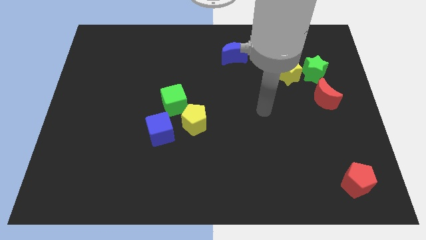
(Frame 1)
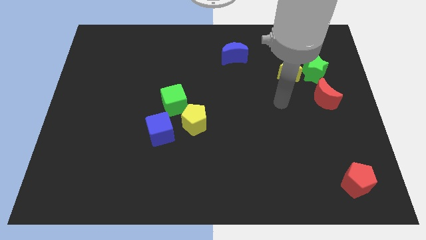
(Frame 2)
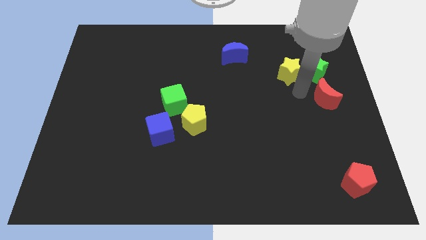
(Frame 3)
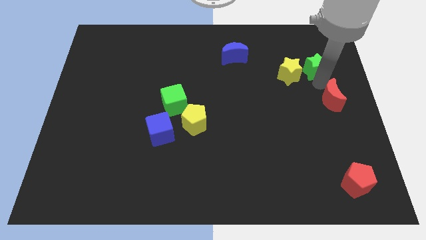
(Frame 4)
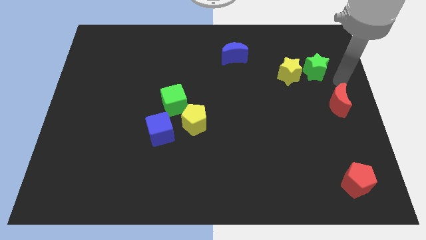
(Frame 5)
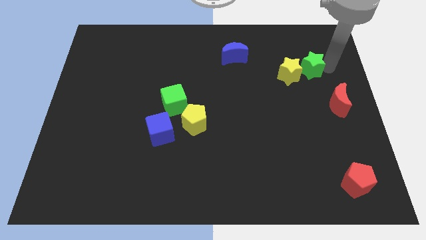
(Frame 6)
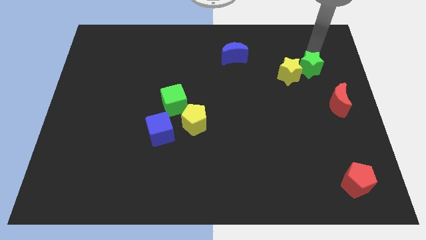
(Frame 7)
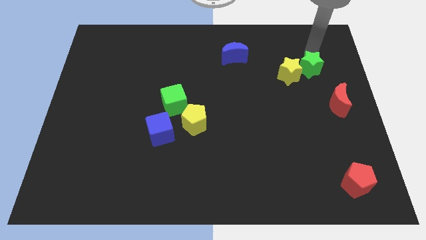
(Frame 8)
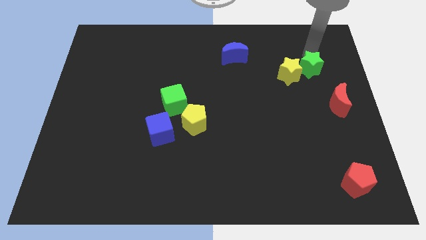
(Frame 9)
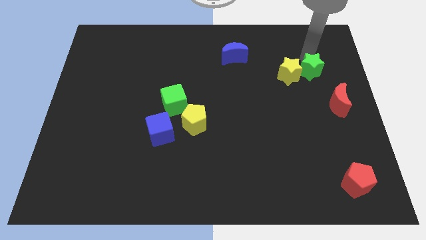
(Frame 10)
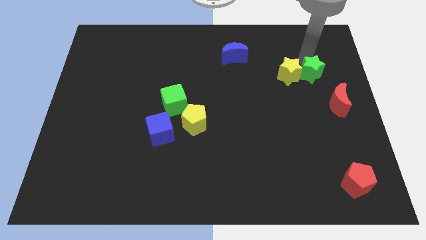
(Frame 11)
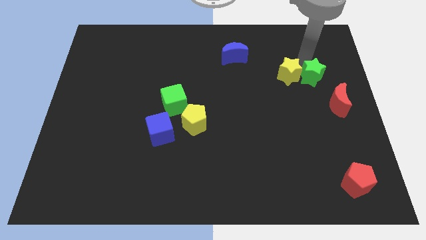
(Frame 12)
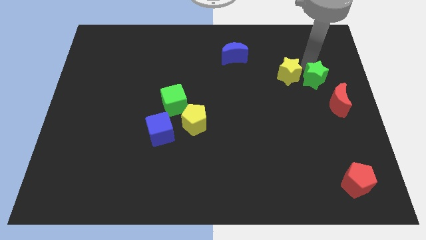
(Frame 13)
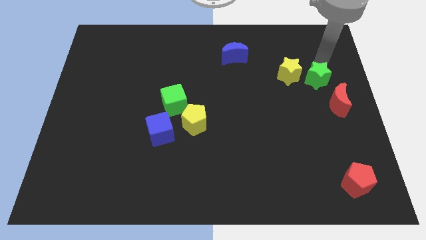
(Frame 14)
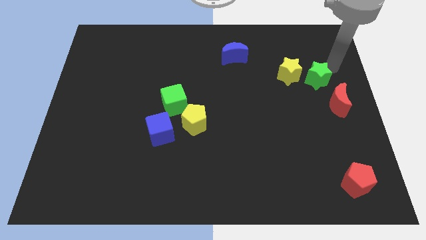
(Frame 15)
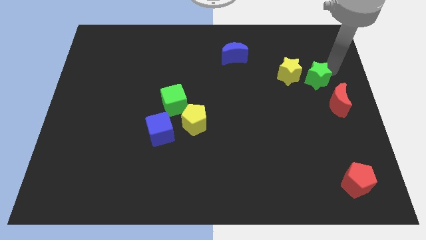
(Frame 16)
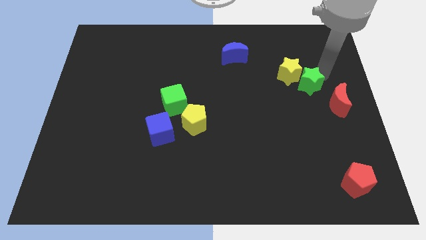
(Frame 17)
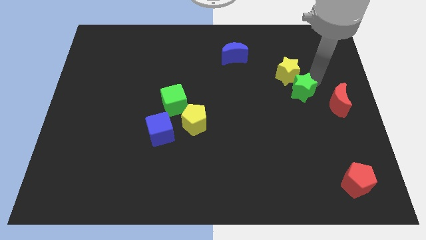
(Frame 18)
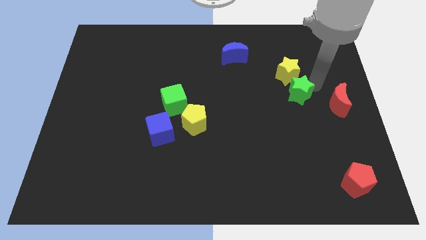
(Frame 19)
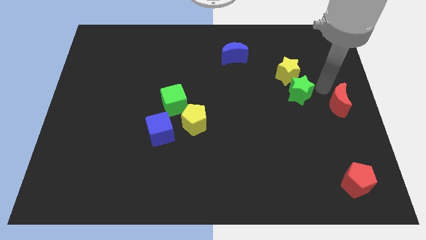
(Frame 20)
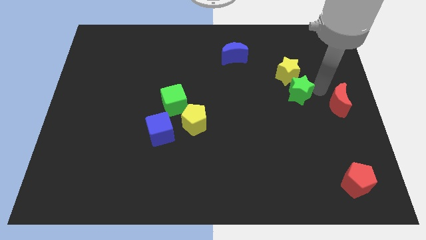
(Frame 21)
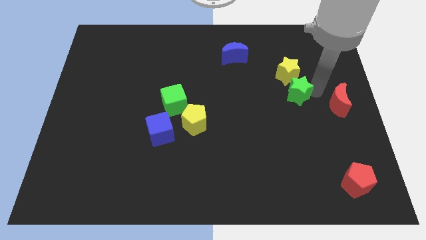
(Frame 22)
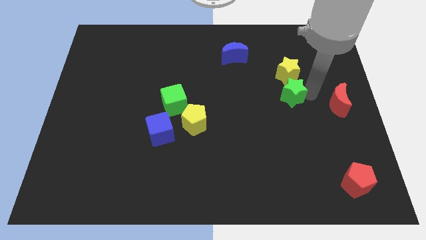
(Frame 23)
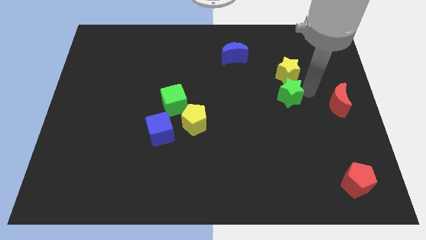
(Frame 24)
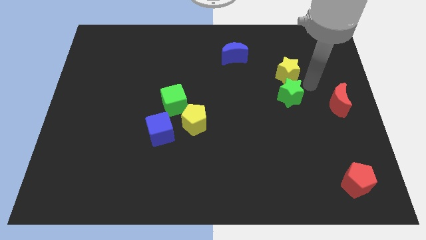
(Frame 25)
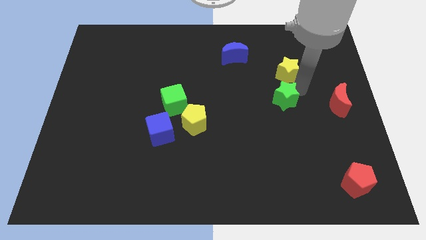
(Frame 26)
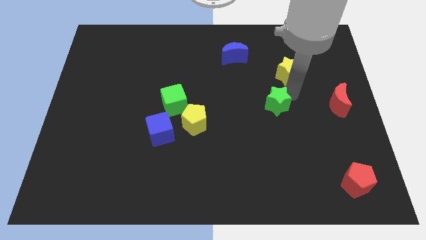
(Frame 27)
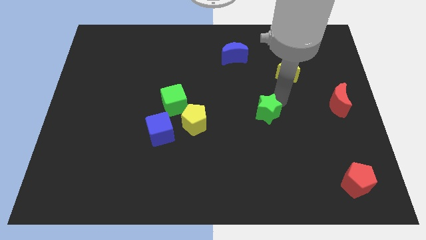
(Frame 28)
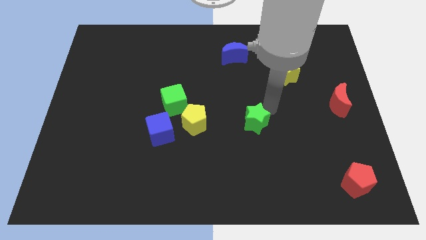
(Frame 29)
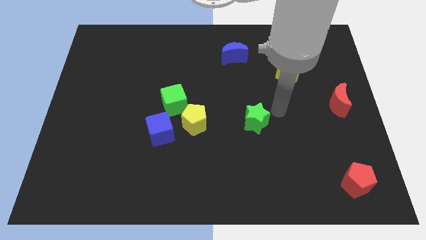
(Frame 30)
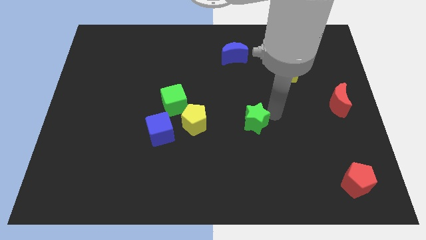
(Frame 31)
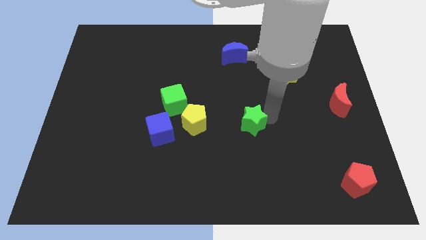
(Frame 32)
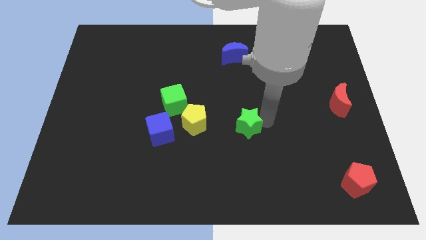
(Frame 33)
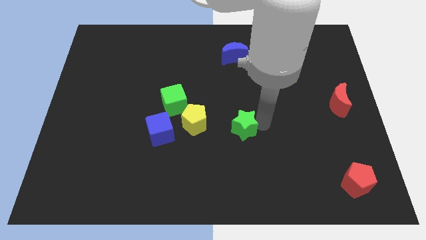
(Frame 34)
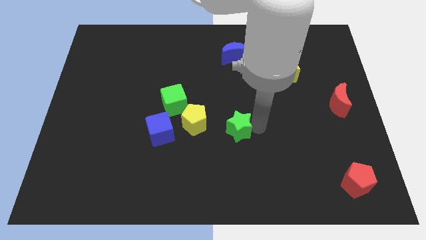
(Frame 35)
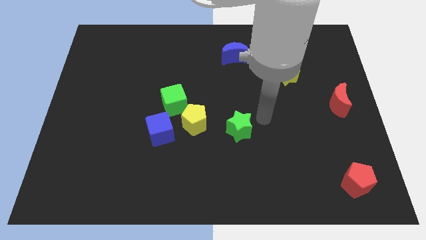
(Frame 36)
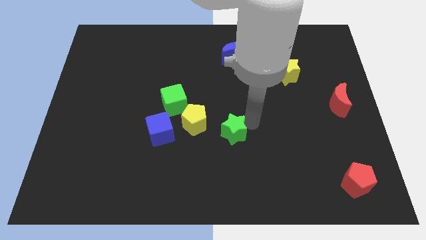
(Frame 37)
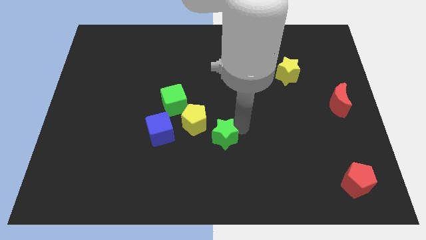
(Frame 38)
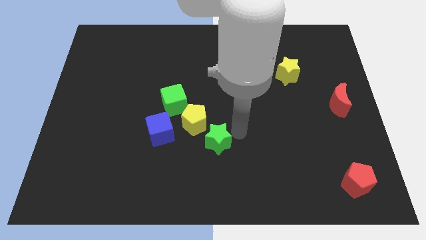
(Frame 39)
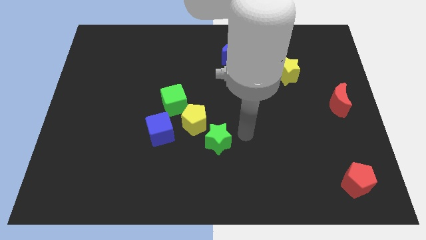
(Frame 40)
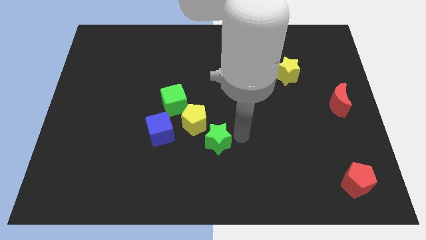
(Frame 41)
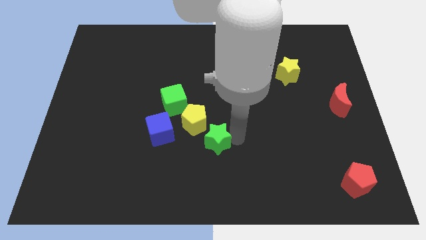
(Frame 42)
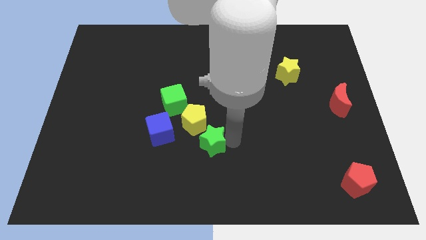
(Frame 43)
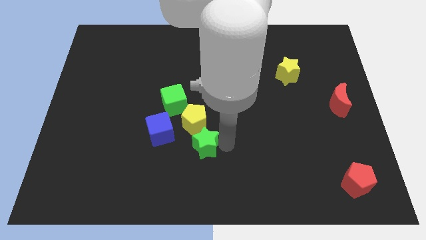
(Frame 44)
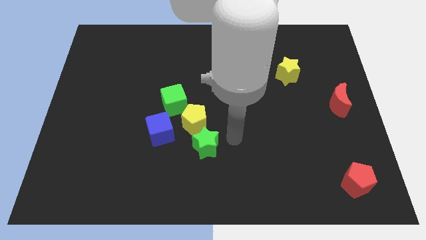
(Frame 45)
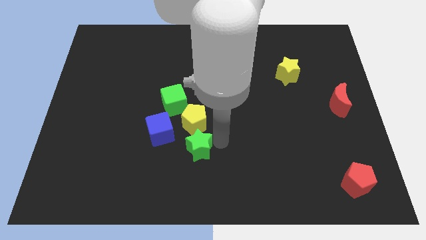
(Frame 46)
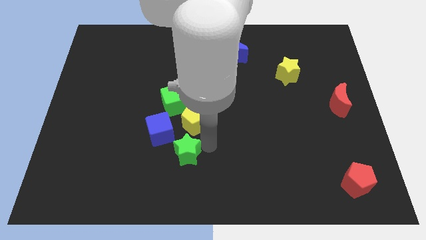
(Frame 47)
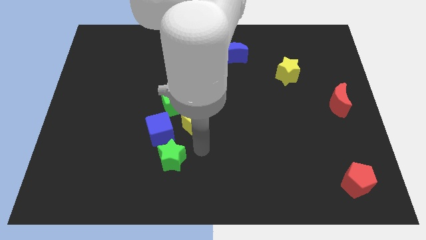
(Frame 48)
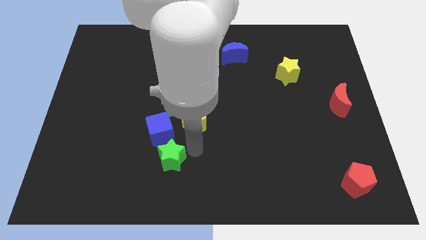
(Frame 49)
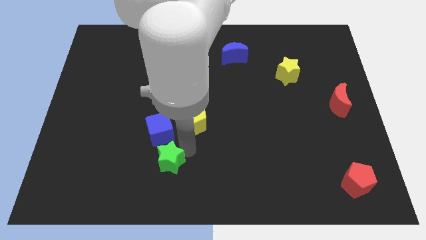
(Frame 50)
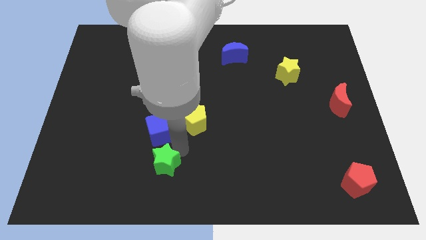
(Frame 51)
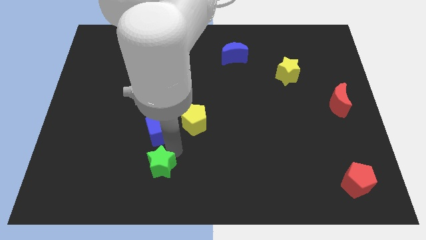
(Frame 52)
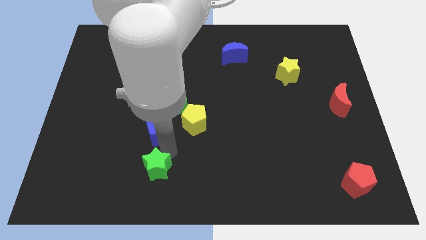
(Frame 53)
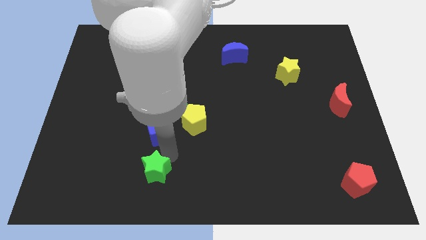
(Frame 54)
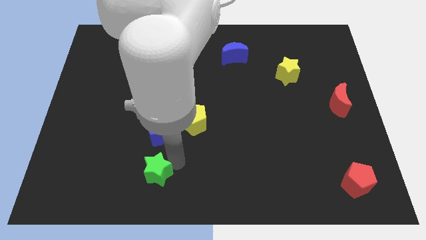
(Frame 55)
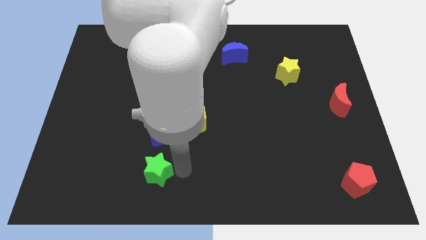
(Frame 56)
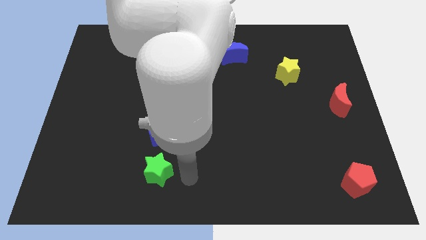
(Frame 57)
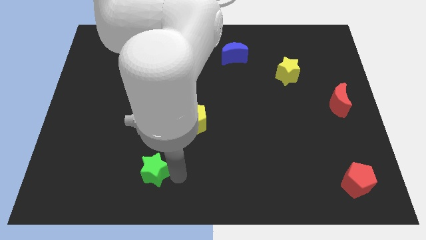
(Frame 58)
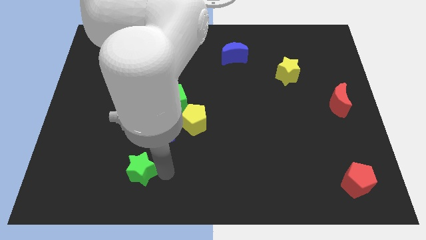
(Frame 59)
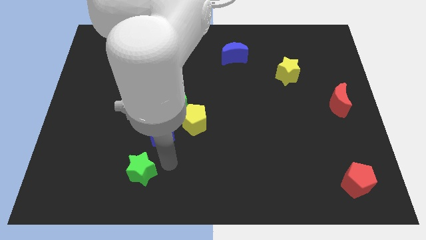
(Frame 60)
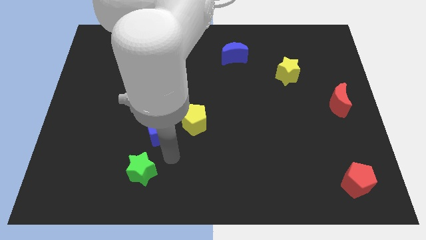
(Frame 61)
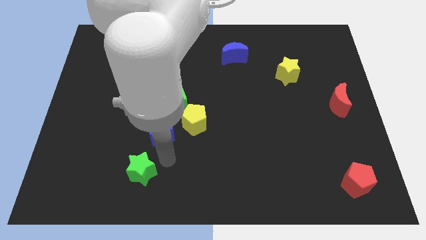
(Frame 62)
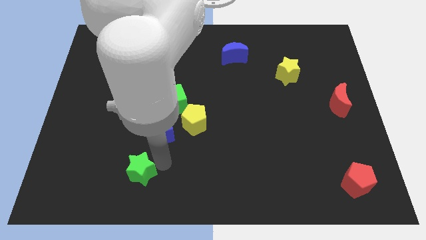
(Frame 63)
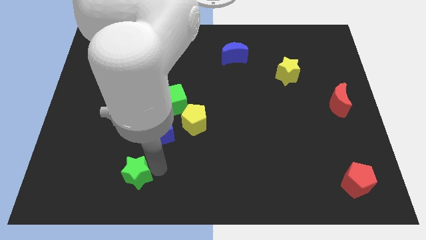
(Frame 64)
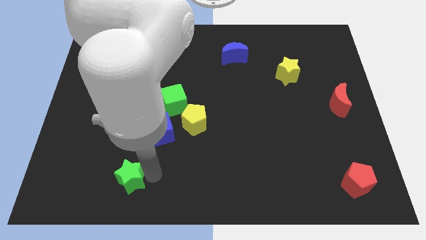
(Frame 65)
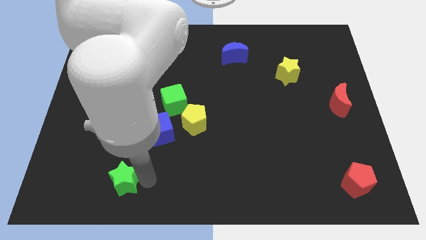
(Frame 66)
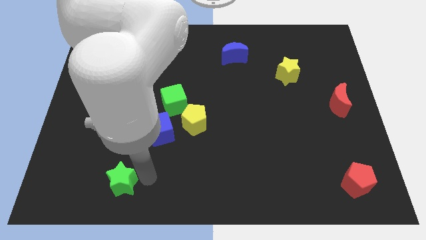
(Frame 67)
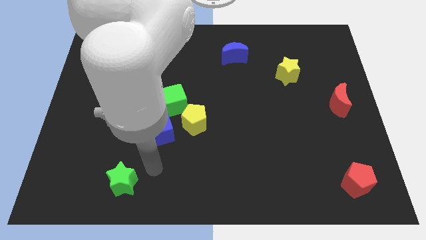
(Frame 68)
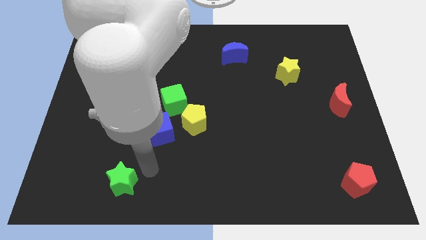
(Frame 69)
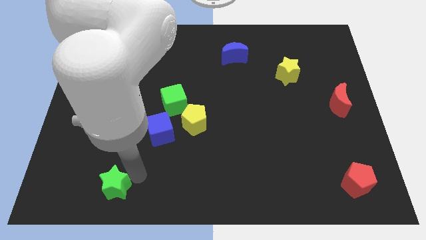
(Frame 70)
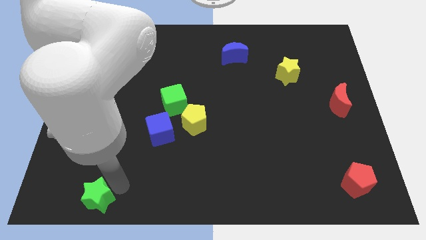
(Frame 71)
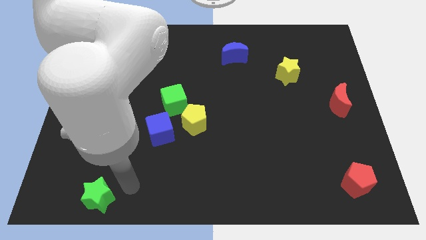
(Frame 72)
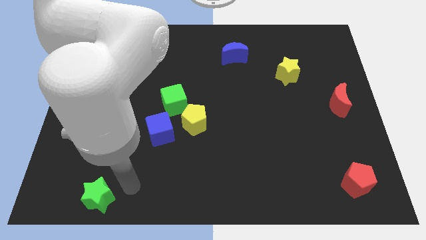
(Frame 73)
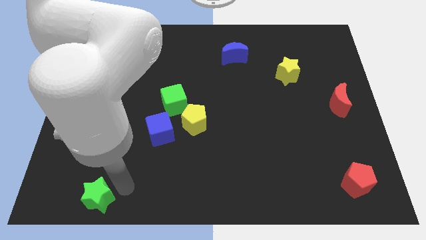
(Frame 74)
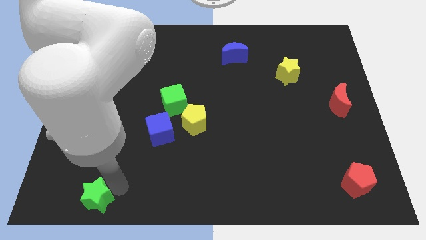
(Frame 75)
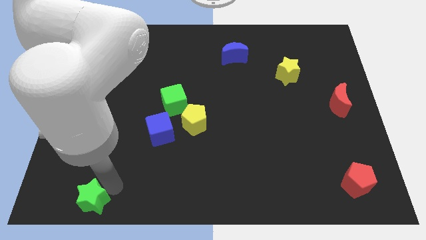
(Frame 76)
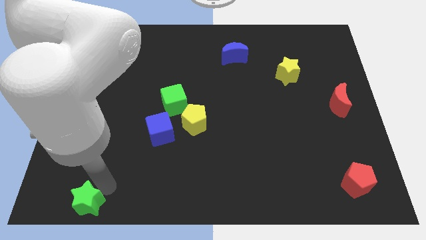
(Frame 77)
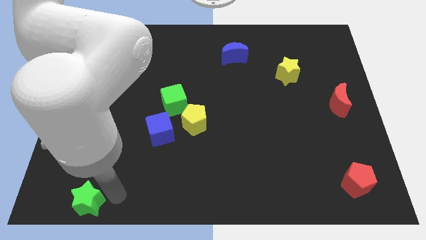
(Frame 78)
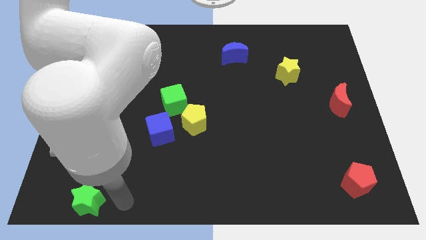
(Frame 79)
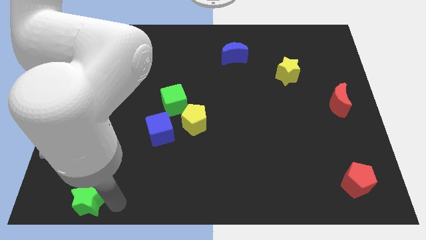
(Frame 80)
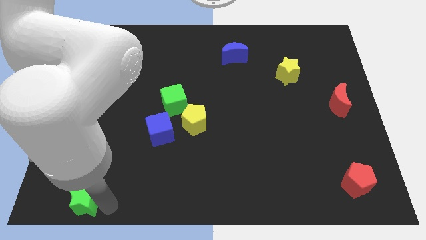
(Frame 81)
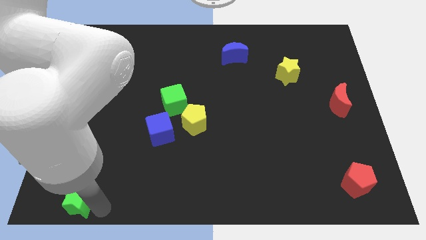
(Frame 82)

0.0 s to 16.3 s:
slide the green star to the bottom left of the board
